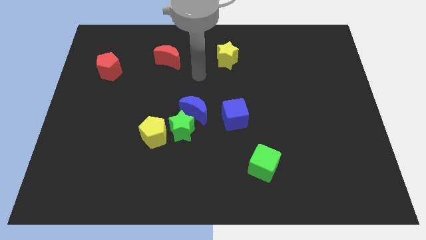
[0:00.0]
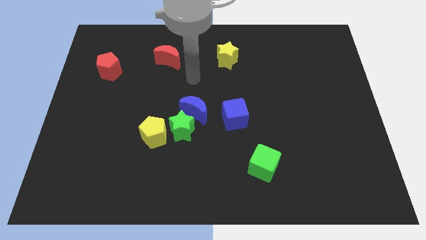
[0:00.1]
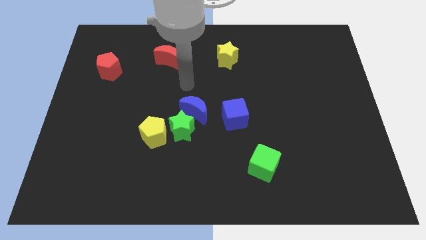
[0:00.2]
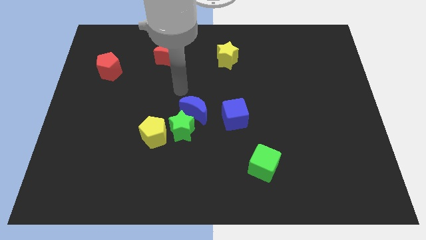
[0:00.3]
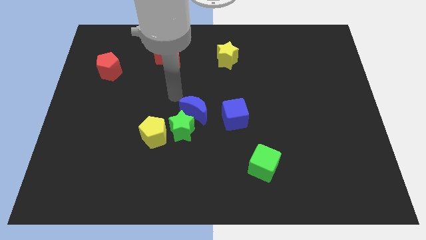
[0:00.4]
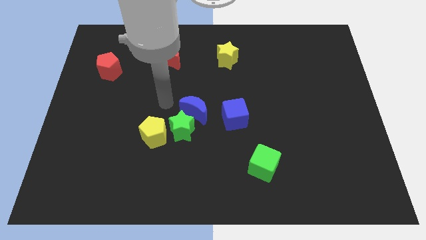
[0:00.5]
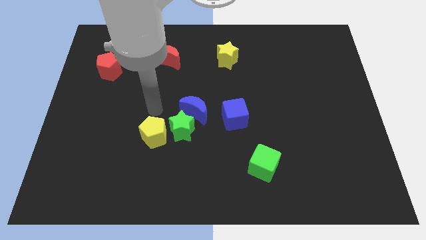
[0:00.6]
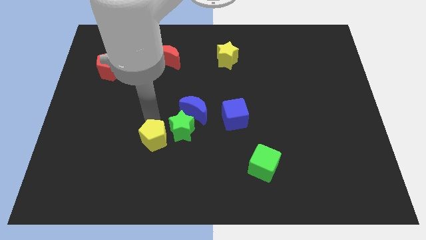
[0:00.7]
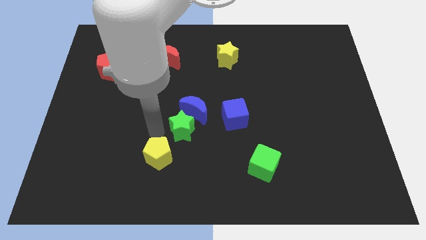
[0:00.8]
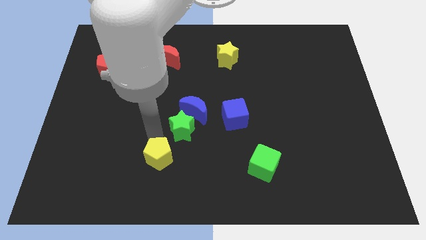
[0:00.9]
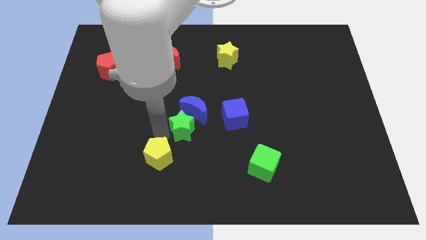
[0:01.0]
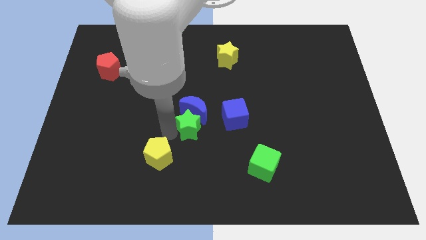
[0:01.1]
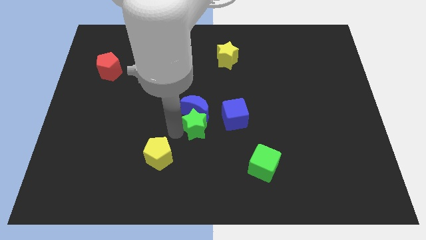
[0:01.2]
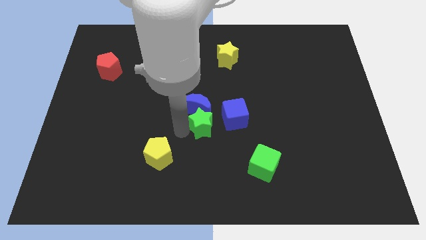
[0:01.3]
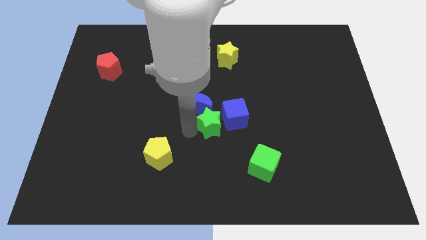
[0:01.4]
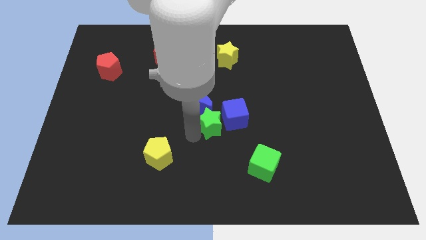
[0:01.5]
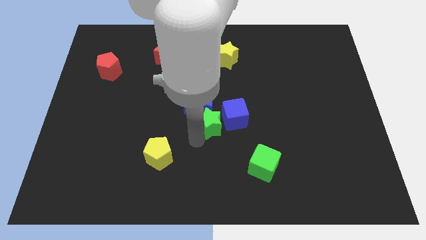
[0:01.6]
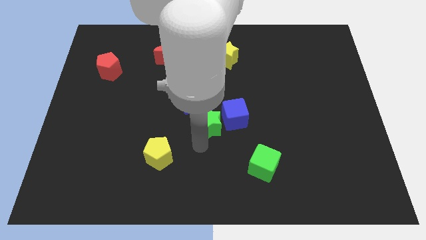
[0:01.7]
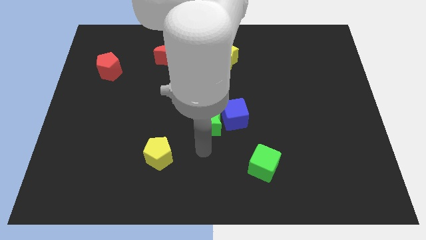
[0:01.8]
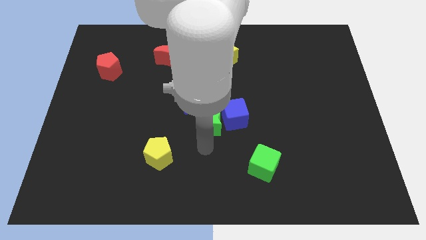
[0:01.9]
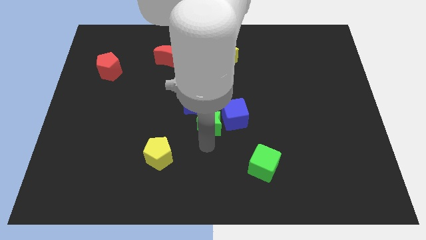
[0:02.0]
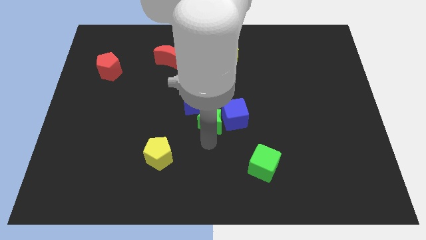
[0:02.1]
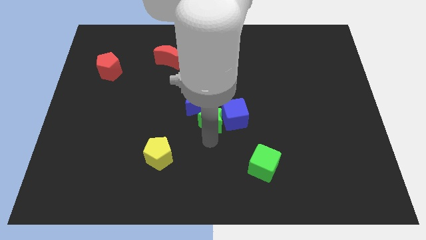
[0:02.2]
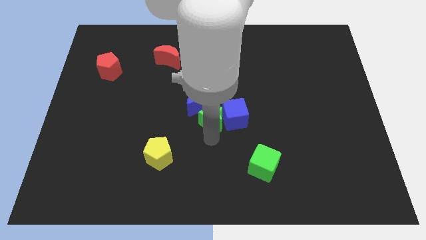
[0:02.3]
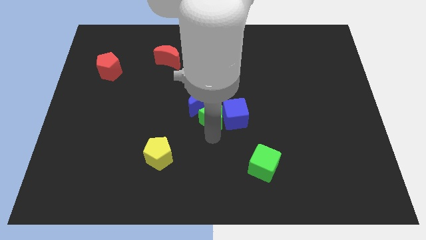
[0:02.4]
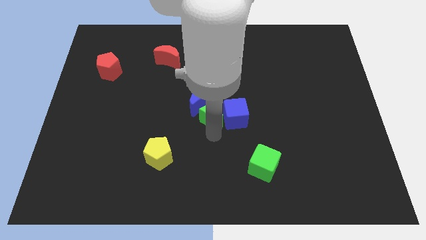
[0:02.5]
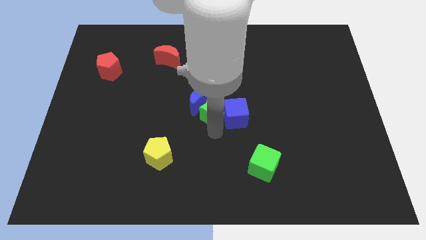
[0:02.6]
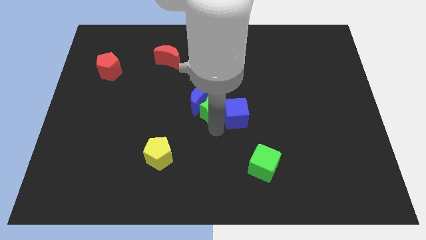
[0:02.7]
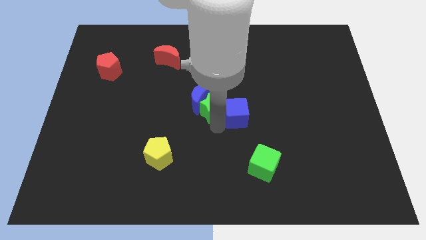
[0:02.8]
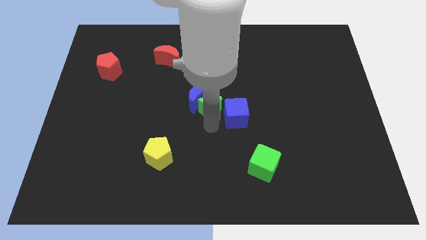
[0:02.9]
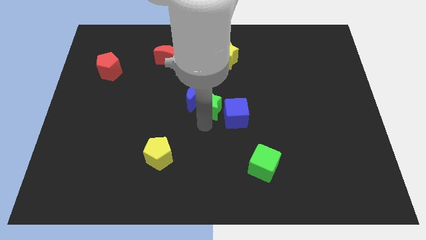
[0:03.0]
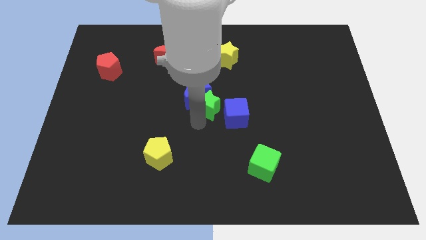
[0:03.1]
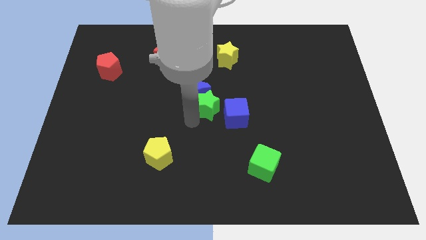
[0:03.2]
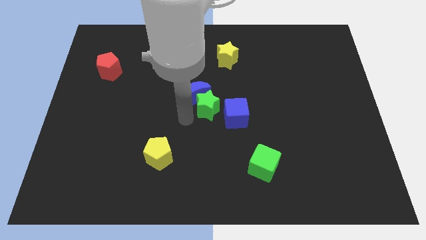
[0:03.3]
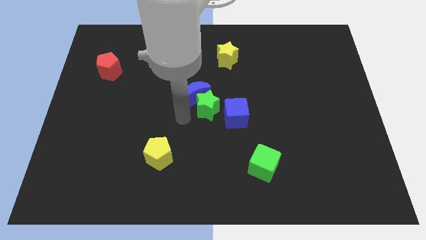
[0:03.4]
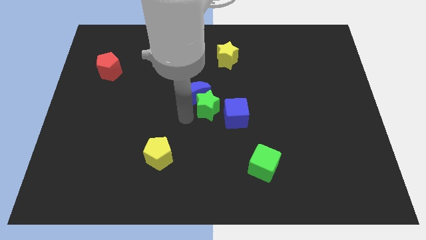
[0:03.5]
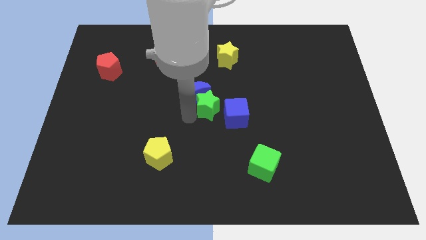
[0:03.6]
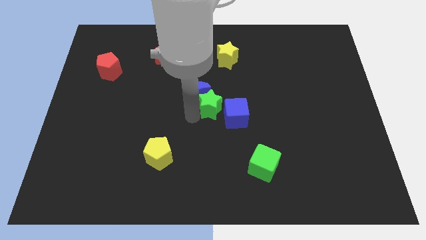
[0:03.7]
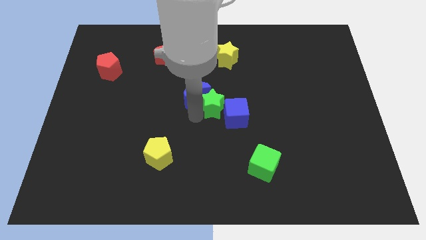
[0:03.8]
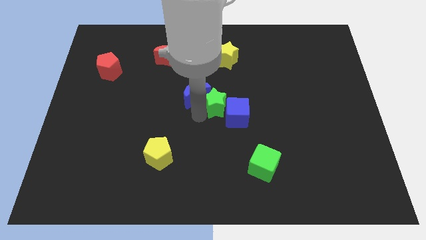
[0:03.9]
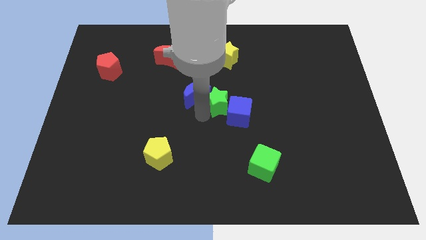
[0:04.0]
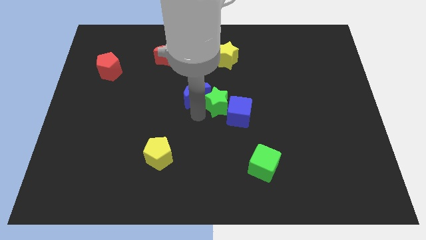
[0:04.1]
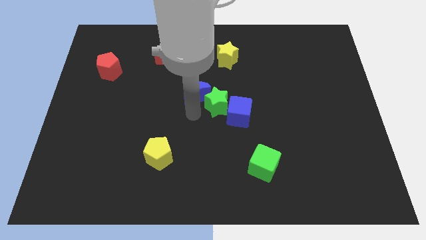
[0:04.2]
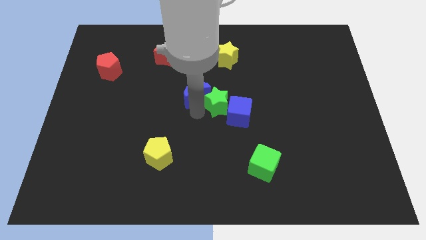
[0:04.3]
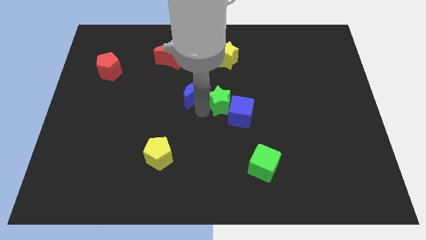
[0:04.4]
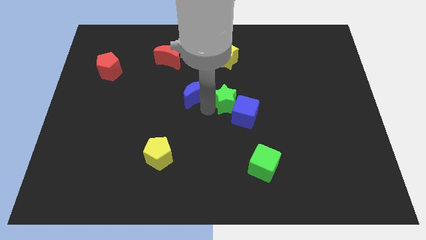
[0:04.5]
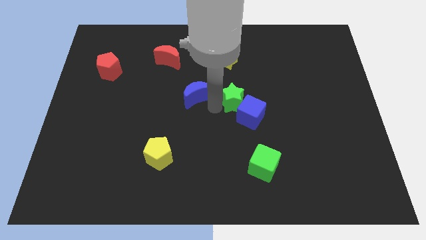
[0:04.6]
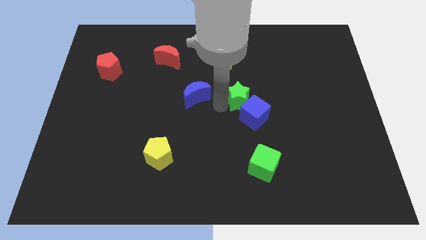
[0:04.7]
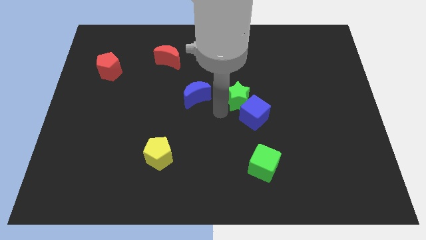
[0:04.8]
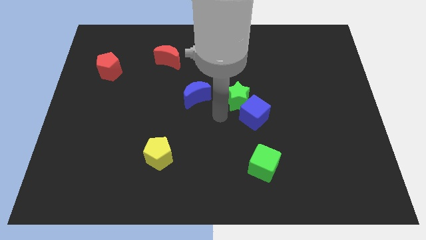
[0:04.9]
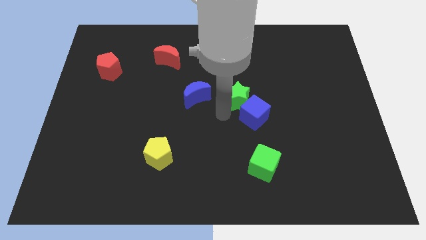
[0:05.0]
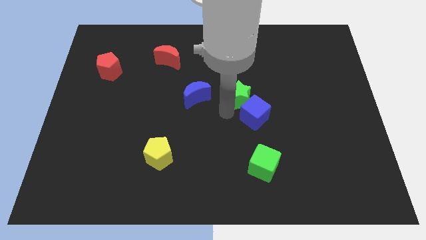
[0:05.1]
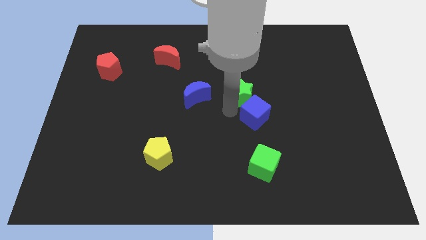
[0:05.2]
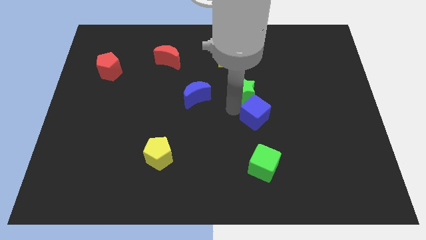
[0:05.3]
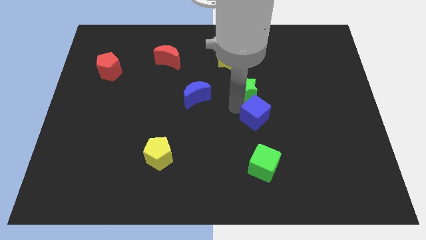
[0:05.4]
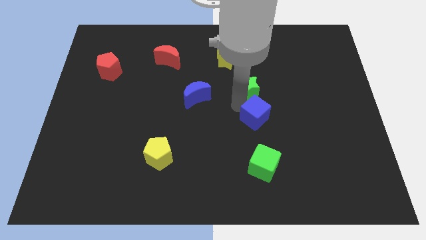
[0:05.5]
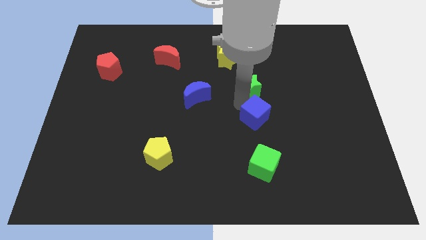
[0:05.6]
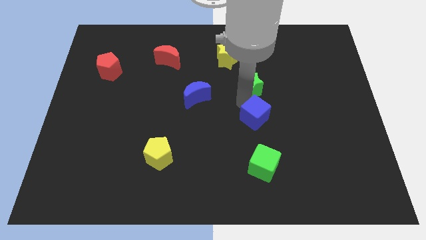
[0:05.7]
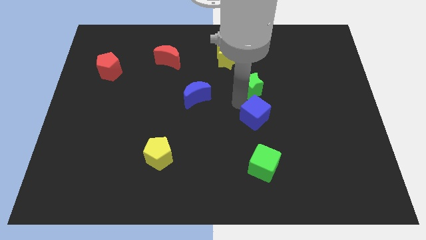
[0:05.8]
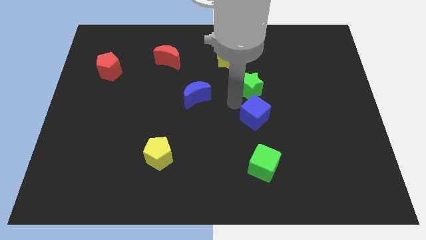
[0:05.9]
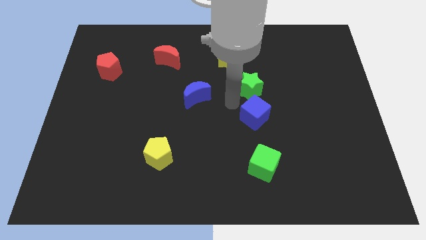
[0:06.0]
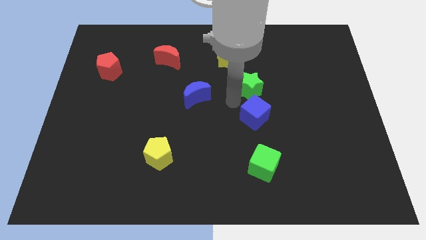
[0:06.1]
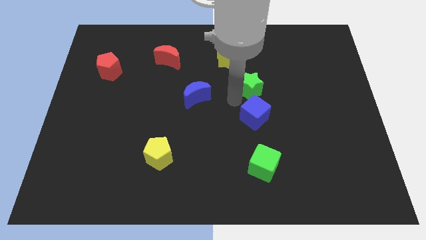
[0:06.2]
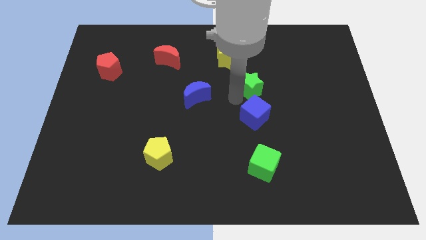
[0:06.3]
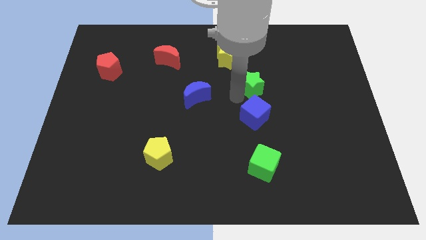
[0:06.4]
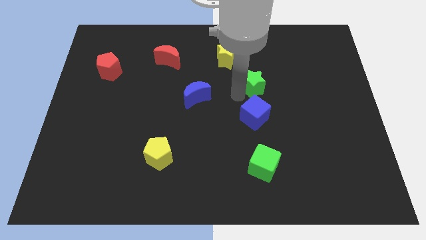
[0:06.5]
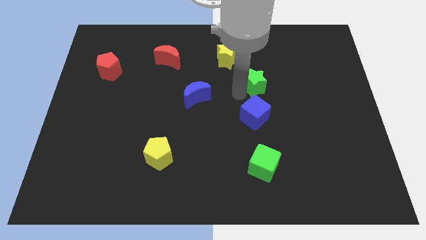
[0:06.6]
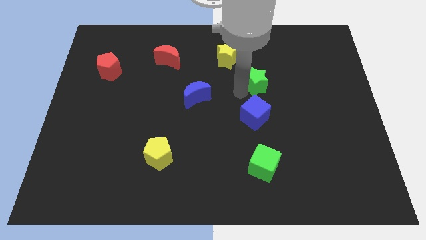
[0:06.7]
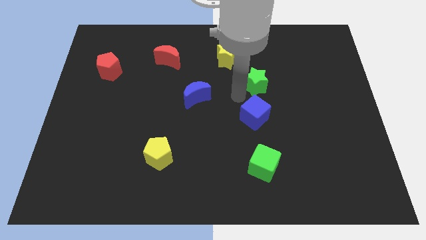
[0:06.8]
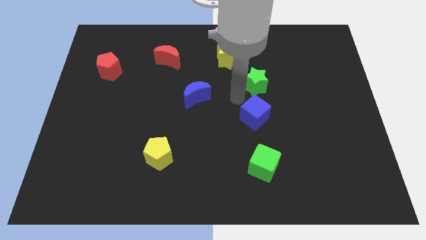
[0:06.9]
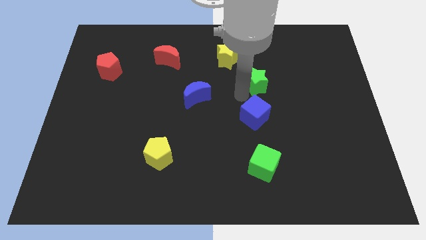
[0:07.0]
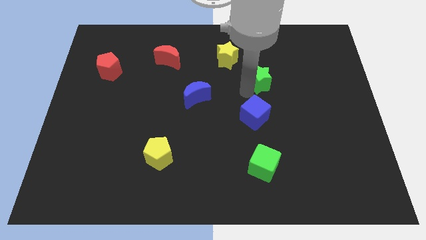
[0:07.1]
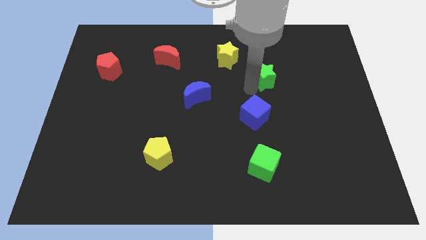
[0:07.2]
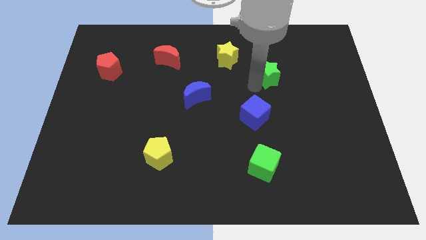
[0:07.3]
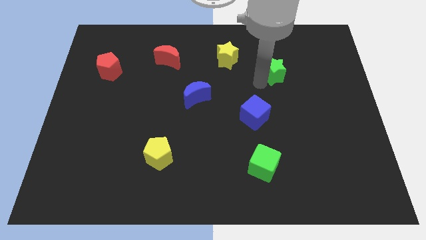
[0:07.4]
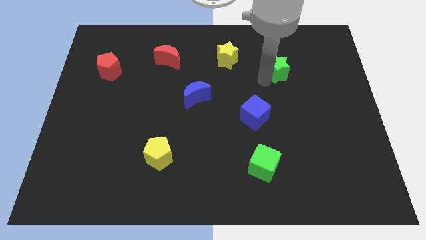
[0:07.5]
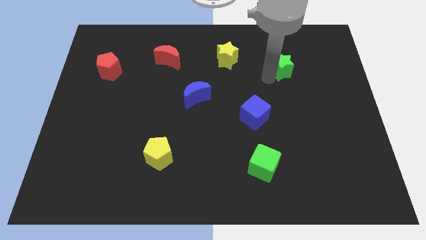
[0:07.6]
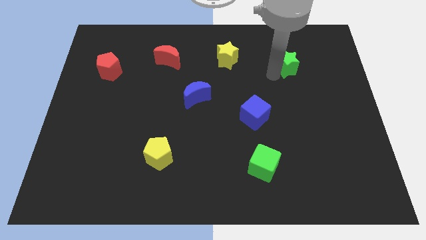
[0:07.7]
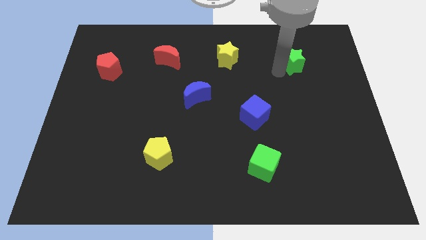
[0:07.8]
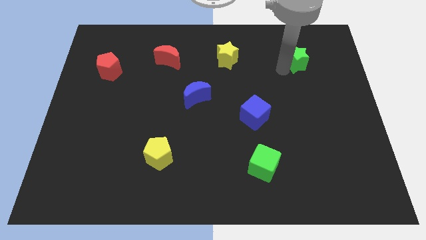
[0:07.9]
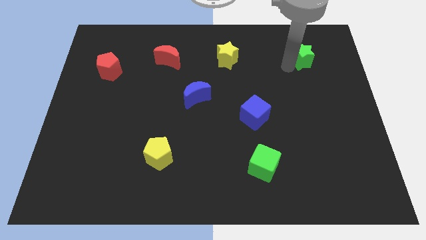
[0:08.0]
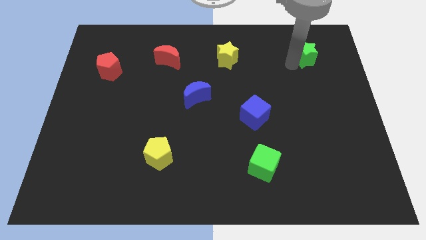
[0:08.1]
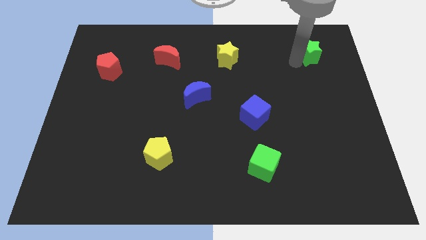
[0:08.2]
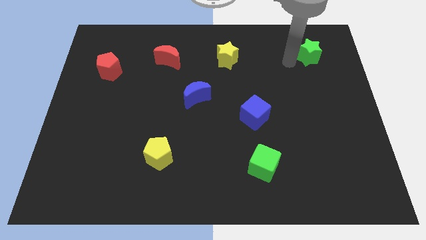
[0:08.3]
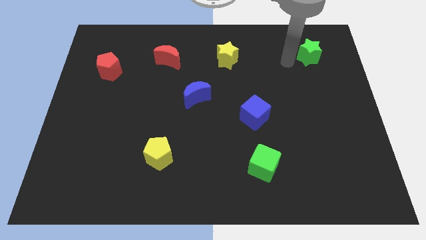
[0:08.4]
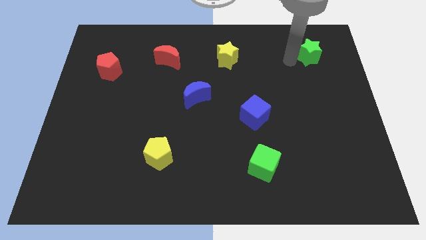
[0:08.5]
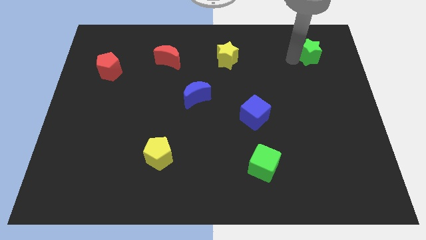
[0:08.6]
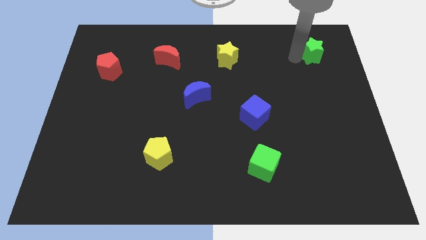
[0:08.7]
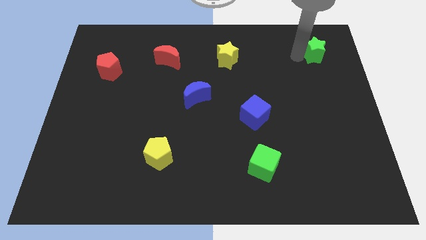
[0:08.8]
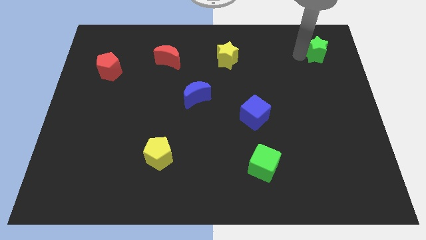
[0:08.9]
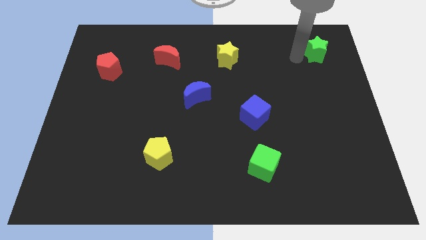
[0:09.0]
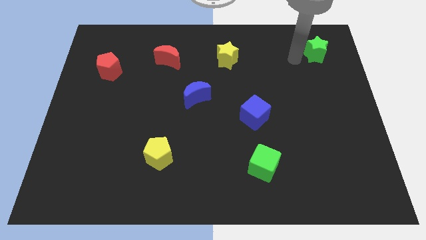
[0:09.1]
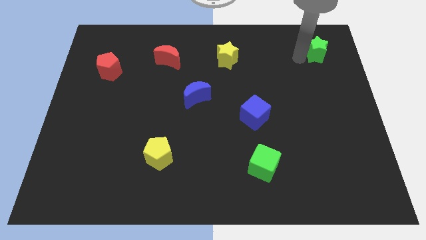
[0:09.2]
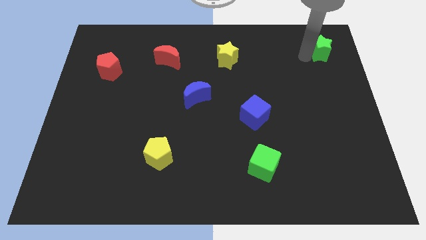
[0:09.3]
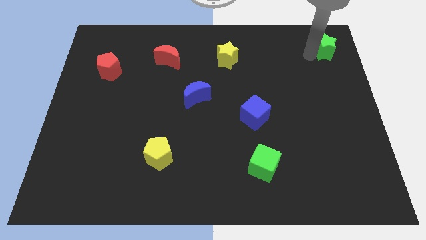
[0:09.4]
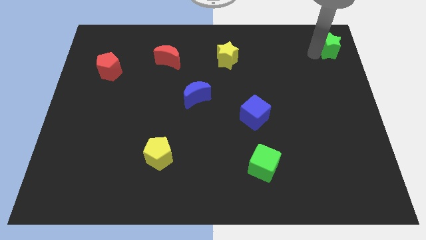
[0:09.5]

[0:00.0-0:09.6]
move the green star to the top right of the board
